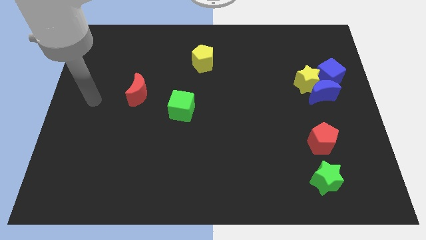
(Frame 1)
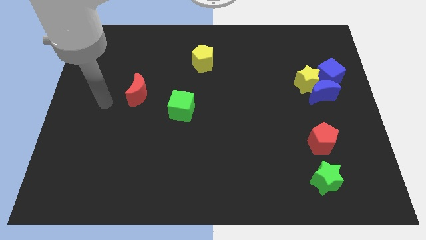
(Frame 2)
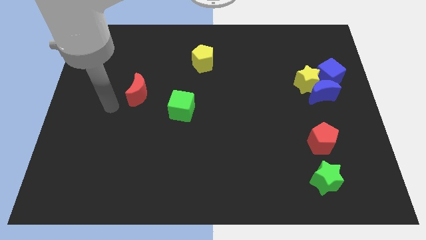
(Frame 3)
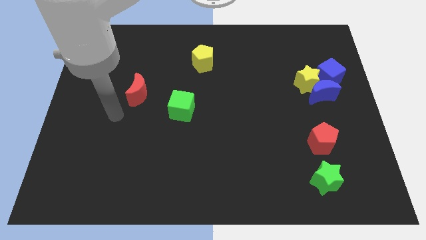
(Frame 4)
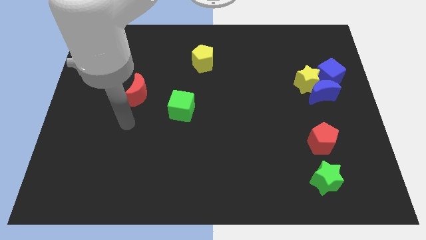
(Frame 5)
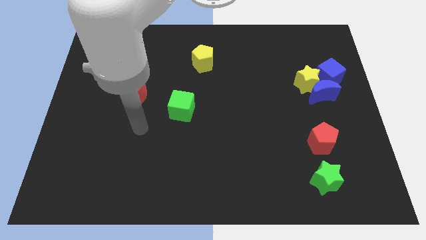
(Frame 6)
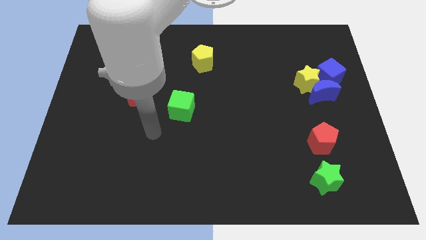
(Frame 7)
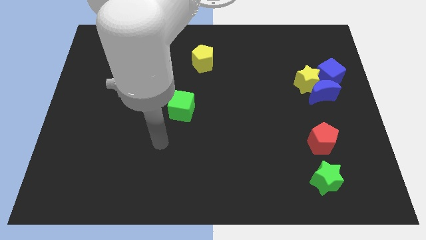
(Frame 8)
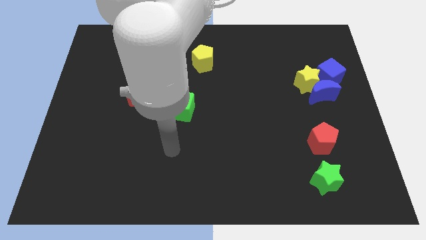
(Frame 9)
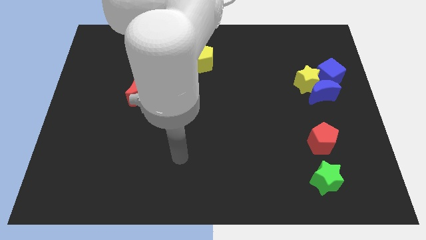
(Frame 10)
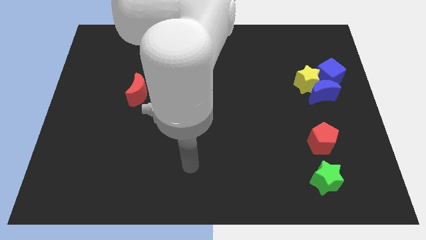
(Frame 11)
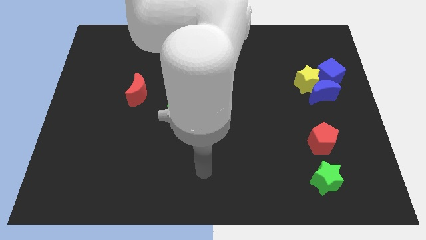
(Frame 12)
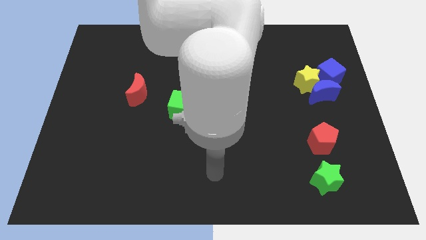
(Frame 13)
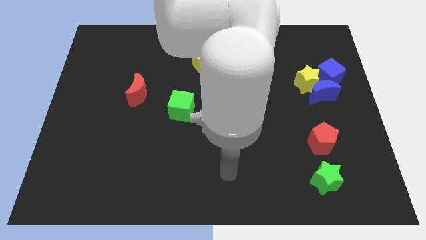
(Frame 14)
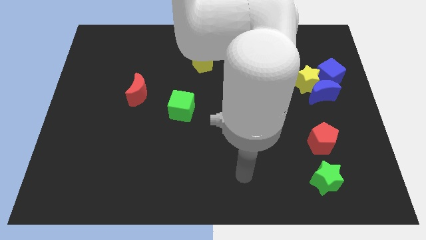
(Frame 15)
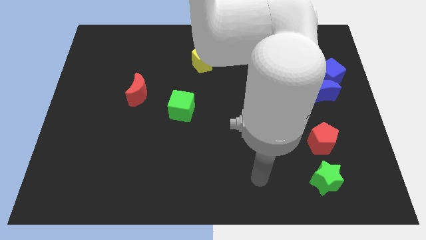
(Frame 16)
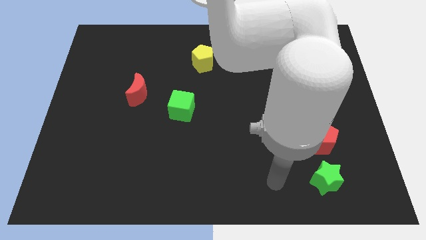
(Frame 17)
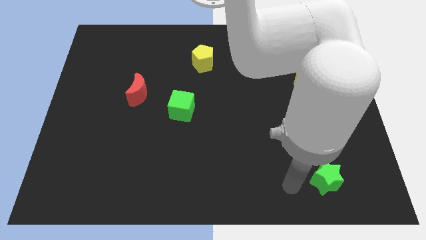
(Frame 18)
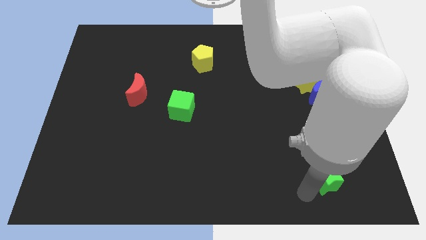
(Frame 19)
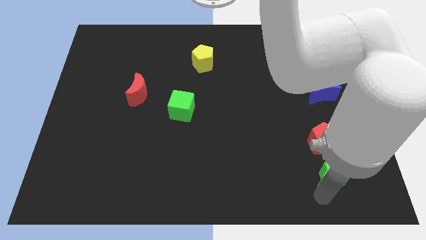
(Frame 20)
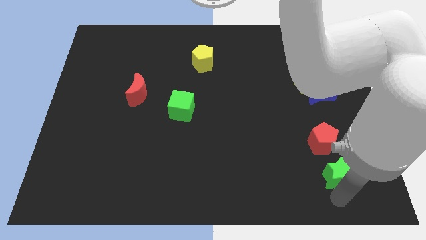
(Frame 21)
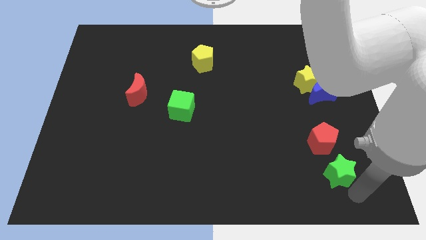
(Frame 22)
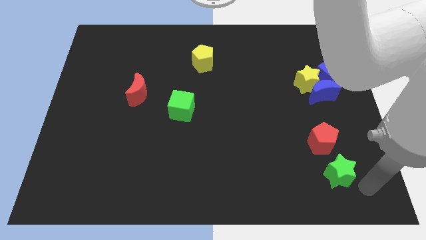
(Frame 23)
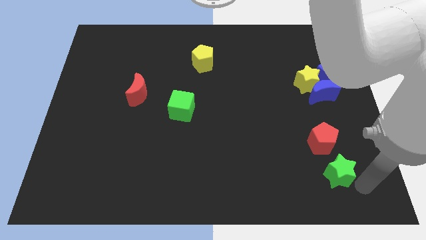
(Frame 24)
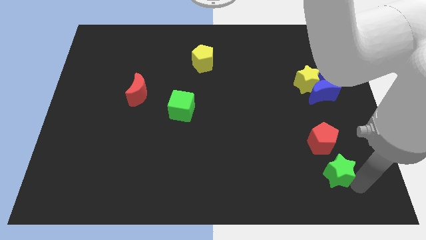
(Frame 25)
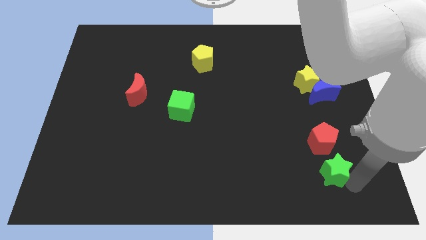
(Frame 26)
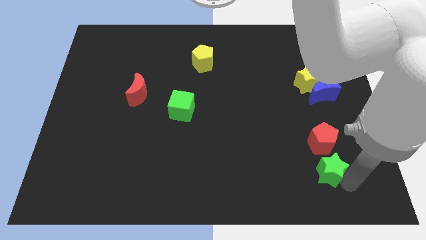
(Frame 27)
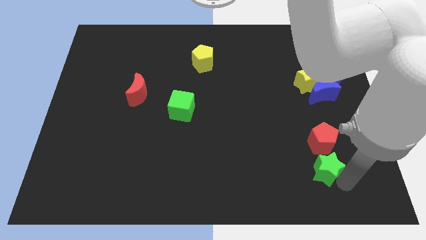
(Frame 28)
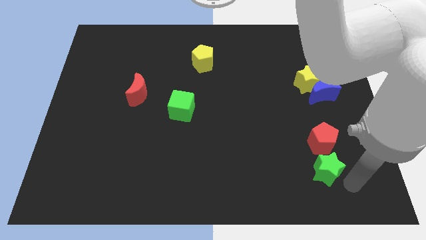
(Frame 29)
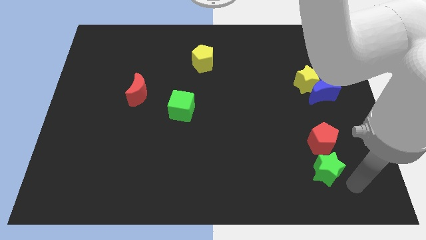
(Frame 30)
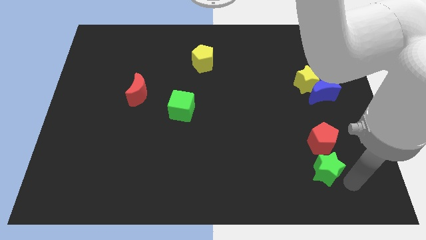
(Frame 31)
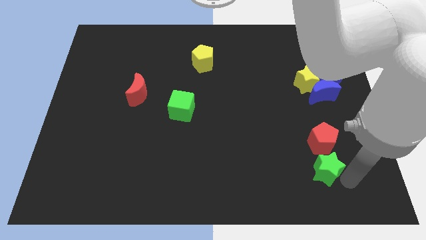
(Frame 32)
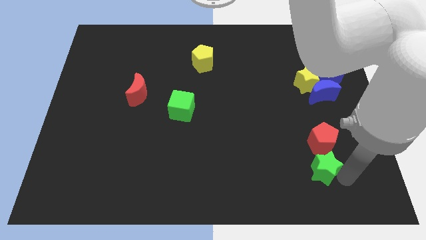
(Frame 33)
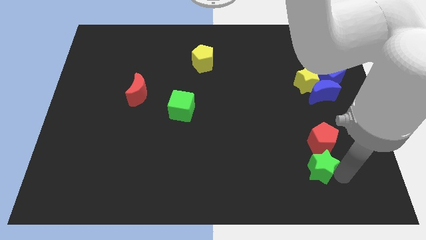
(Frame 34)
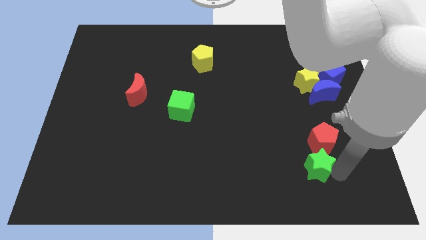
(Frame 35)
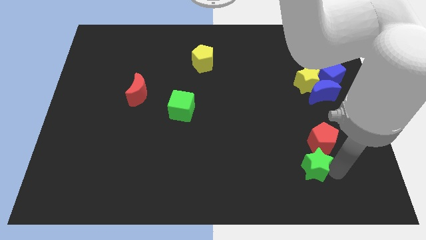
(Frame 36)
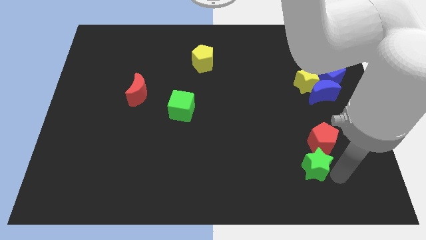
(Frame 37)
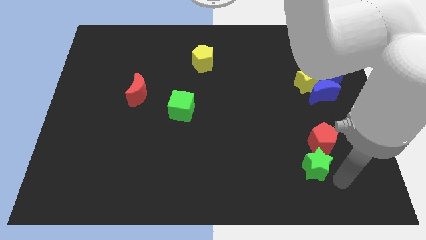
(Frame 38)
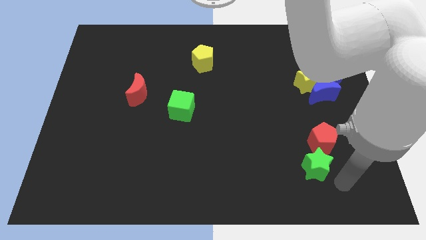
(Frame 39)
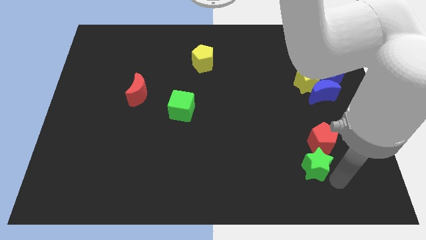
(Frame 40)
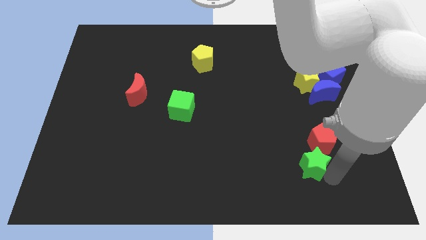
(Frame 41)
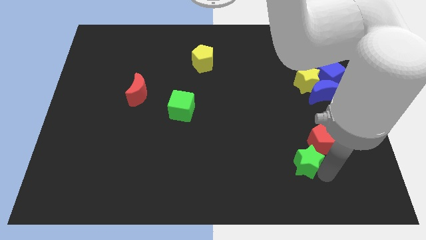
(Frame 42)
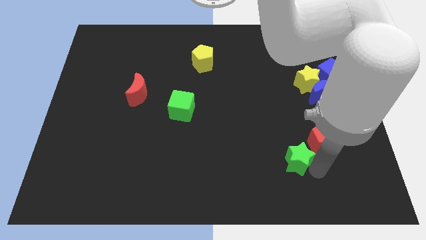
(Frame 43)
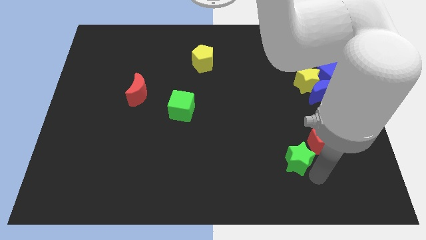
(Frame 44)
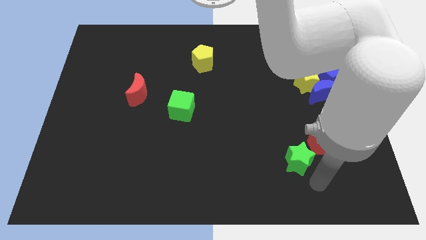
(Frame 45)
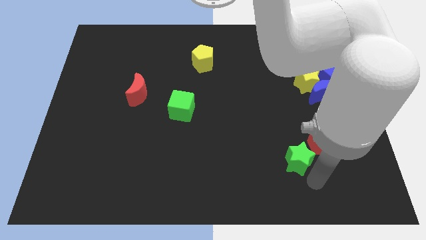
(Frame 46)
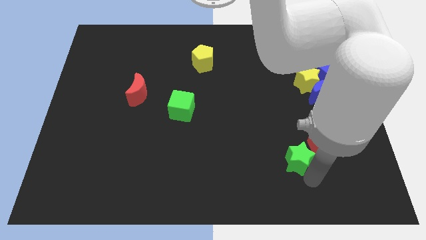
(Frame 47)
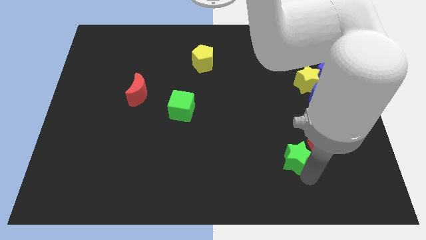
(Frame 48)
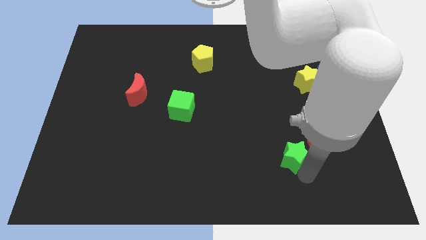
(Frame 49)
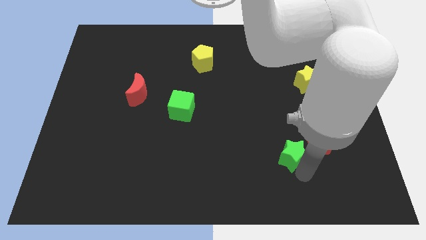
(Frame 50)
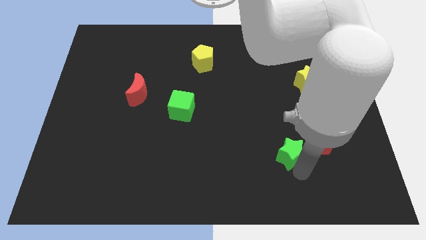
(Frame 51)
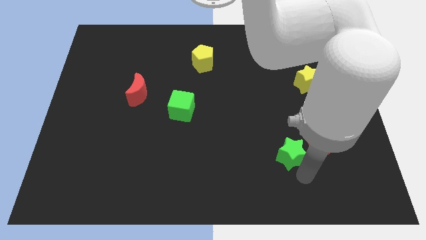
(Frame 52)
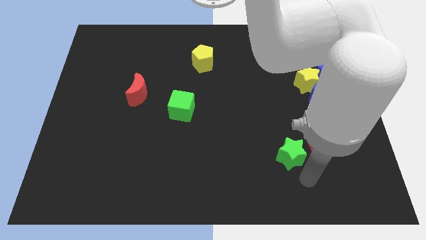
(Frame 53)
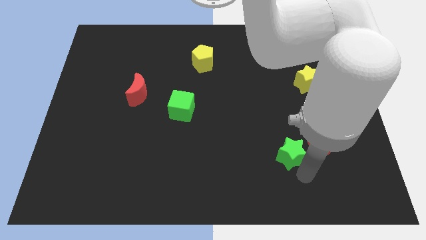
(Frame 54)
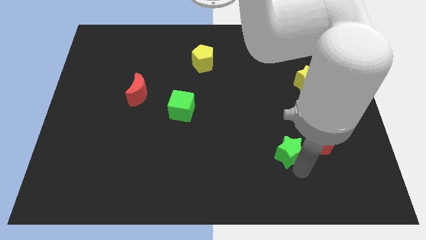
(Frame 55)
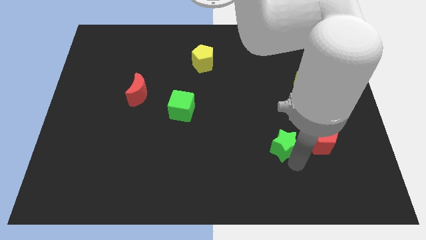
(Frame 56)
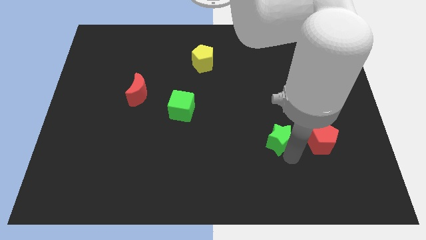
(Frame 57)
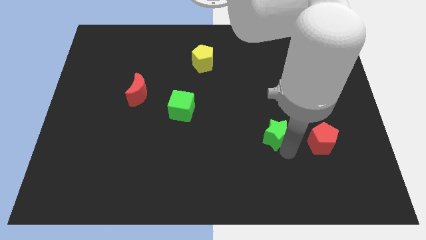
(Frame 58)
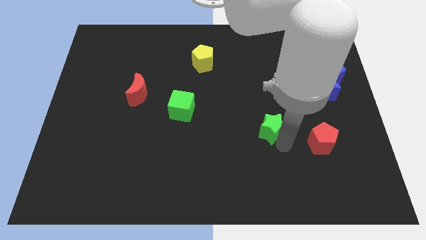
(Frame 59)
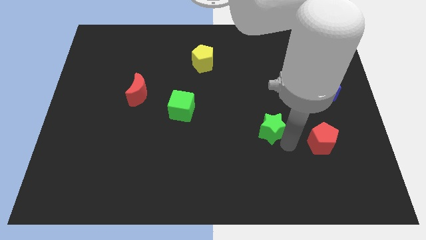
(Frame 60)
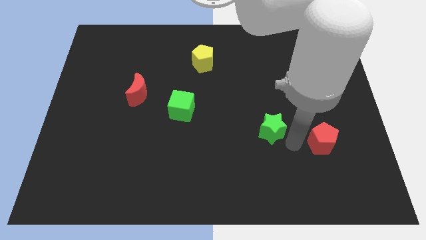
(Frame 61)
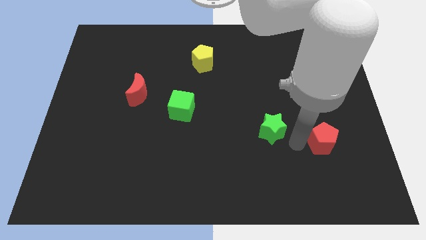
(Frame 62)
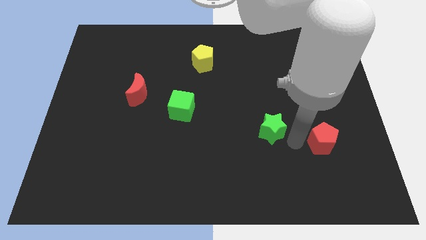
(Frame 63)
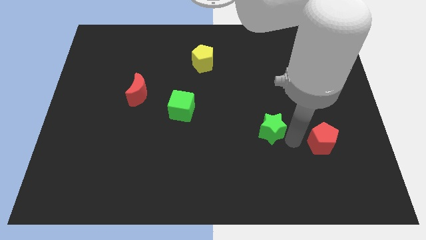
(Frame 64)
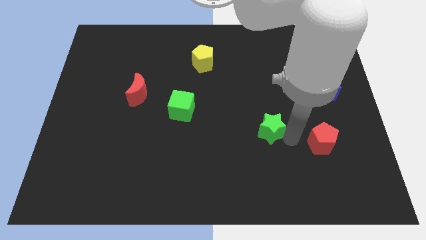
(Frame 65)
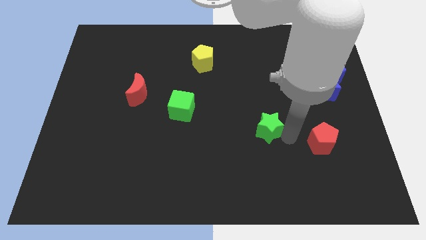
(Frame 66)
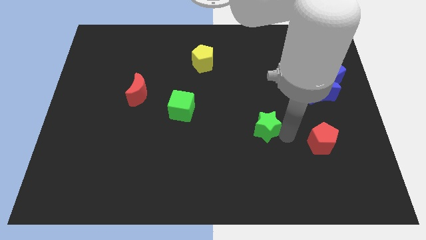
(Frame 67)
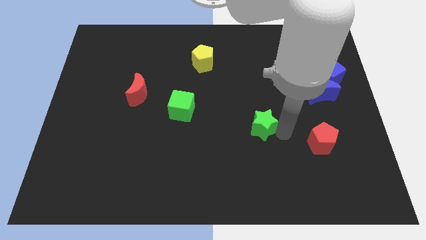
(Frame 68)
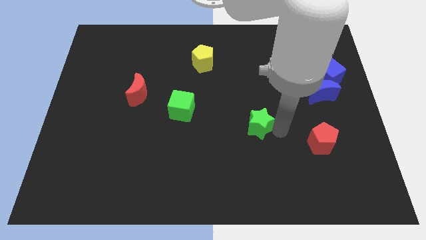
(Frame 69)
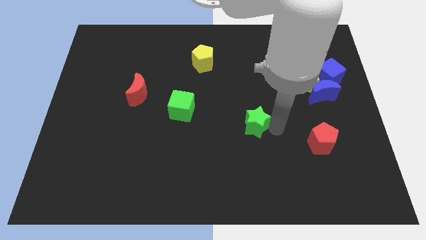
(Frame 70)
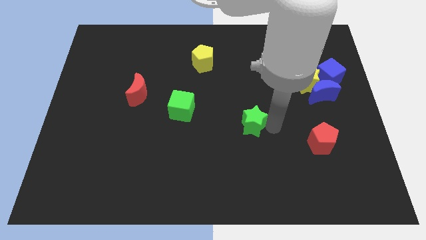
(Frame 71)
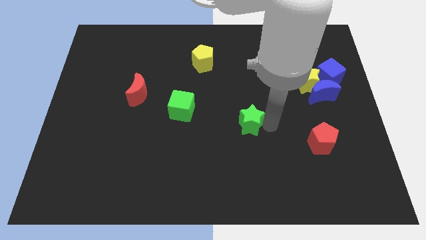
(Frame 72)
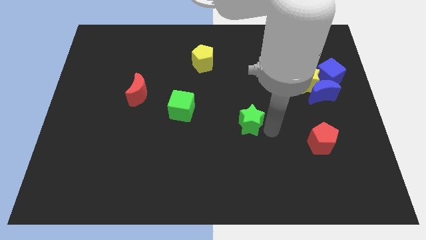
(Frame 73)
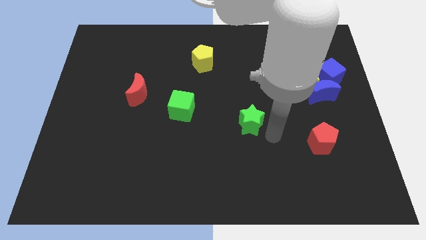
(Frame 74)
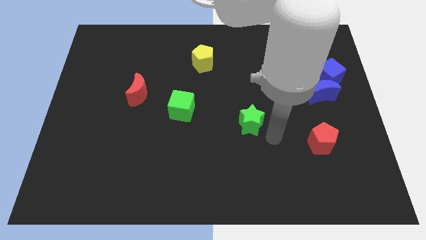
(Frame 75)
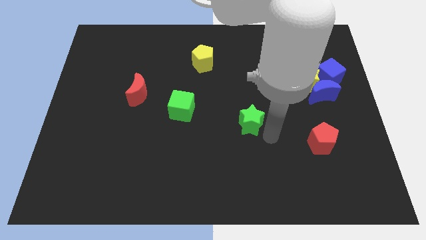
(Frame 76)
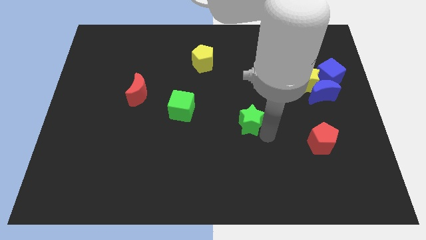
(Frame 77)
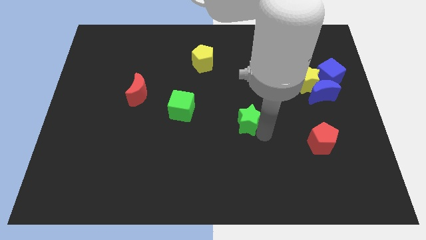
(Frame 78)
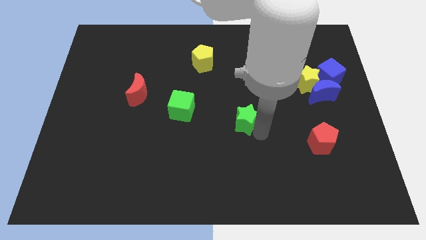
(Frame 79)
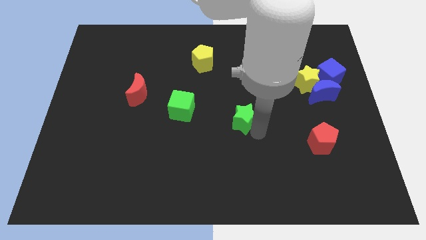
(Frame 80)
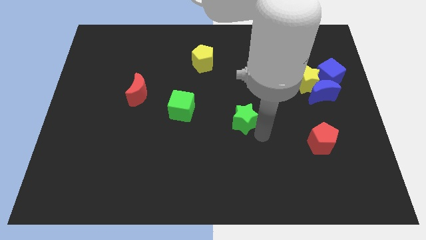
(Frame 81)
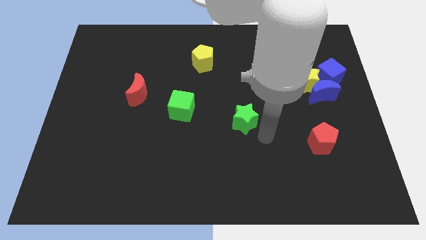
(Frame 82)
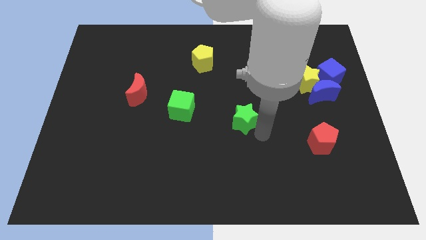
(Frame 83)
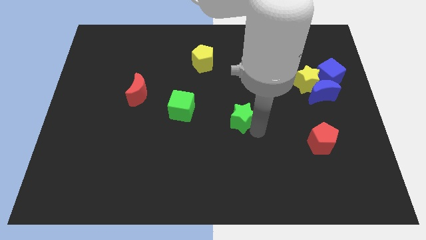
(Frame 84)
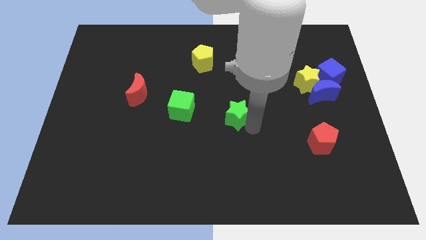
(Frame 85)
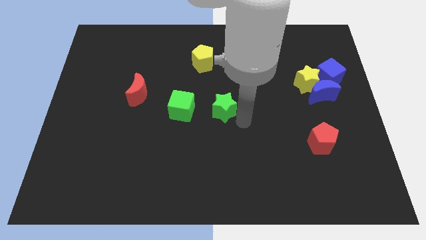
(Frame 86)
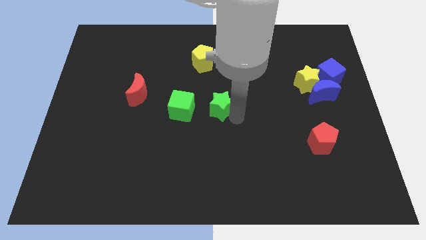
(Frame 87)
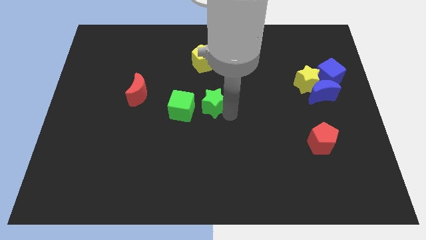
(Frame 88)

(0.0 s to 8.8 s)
move the green star to the bottom of the yellow pentagon
